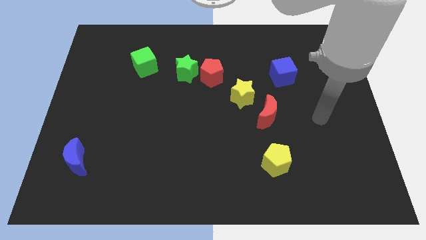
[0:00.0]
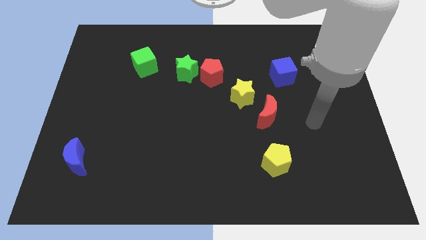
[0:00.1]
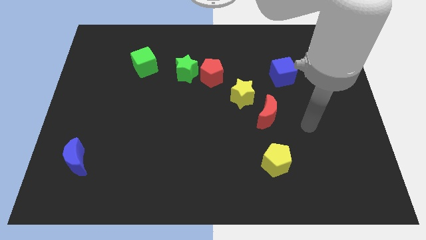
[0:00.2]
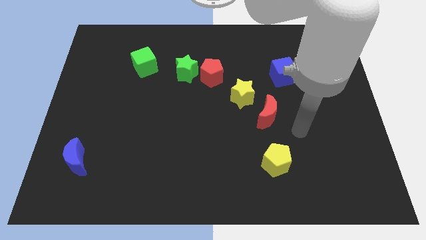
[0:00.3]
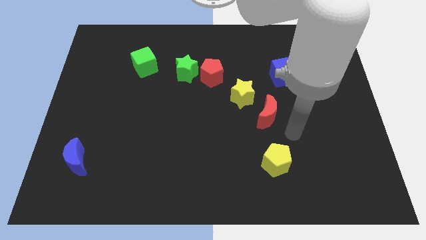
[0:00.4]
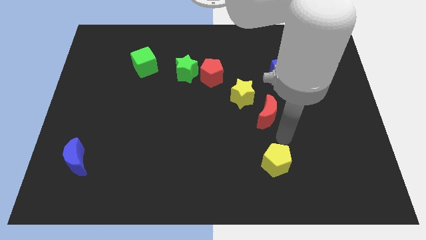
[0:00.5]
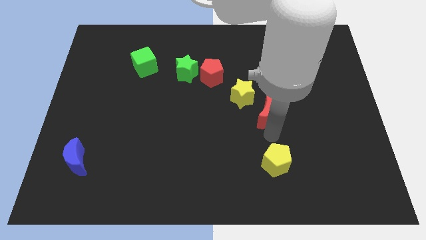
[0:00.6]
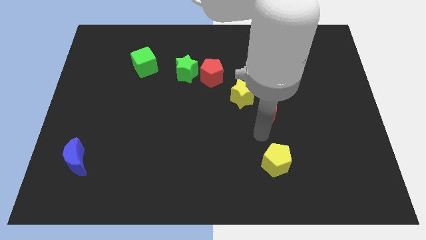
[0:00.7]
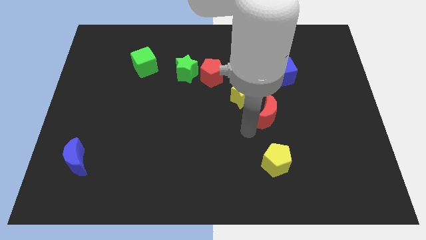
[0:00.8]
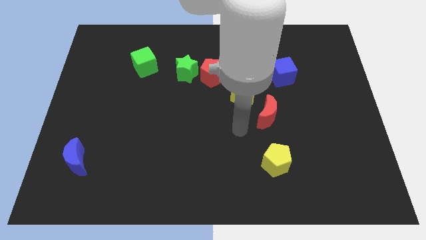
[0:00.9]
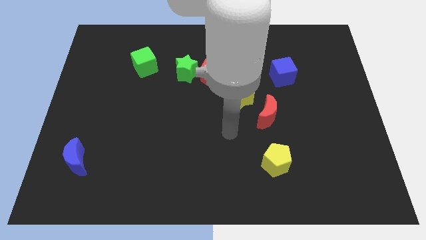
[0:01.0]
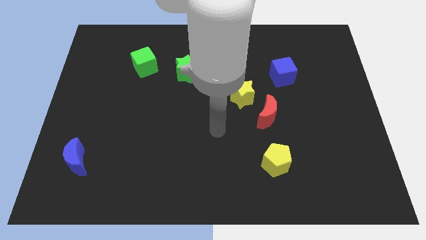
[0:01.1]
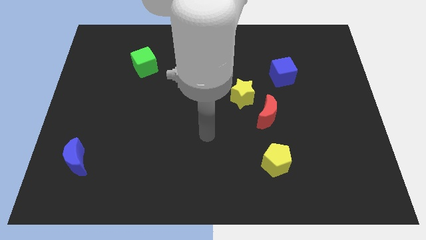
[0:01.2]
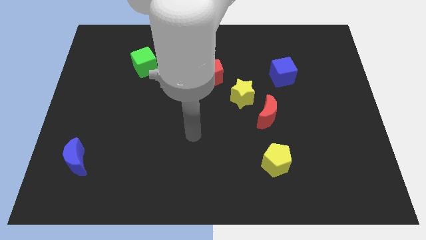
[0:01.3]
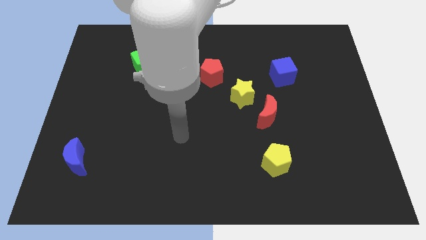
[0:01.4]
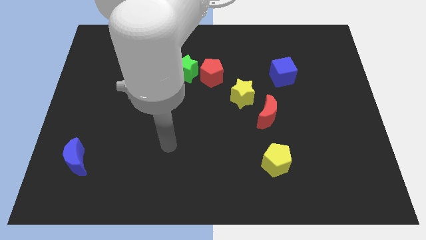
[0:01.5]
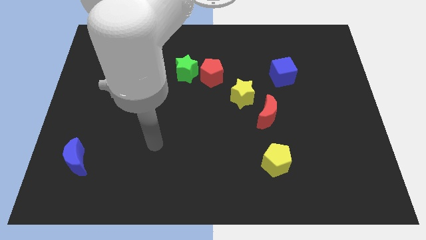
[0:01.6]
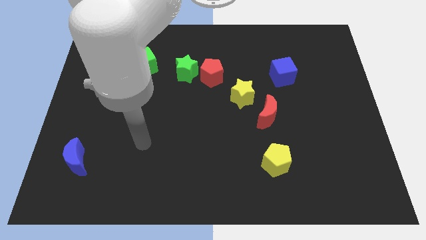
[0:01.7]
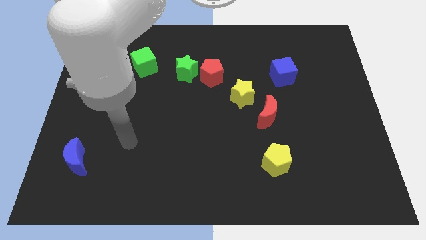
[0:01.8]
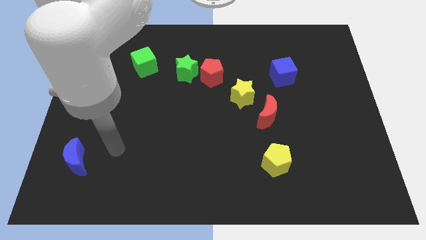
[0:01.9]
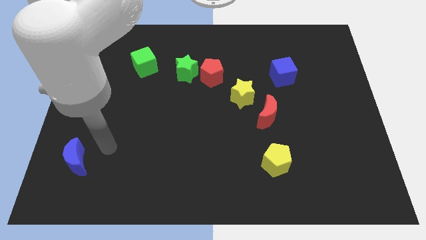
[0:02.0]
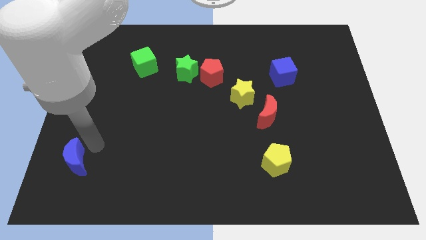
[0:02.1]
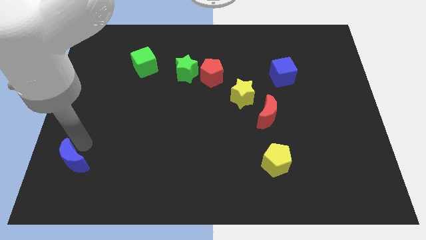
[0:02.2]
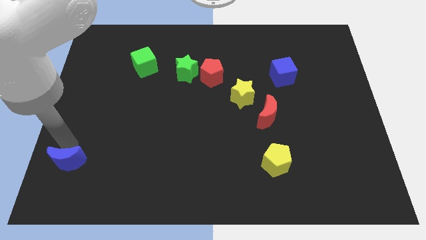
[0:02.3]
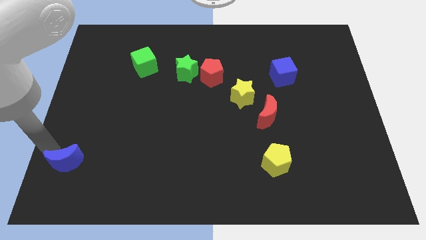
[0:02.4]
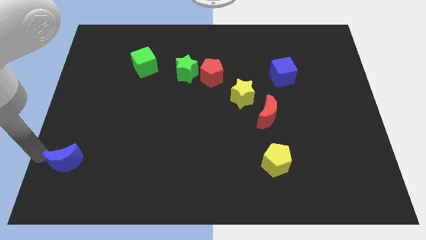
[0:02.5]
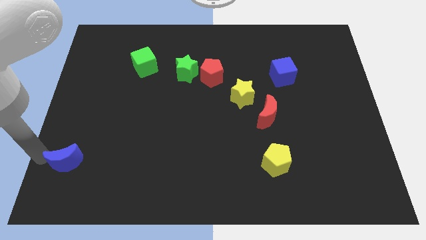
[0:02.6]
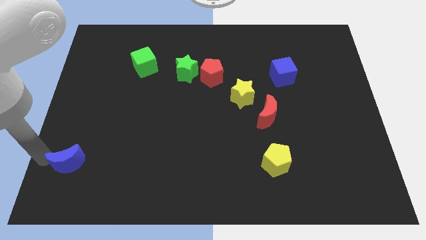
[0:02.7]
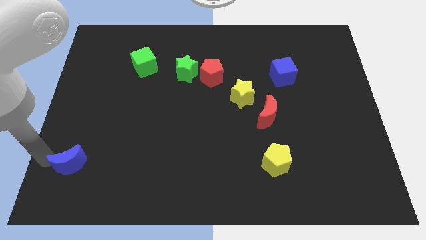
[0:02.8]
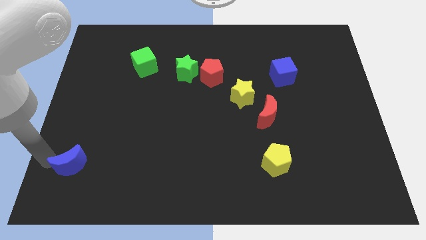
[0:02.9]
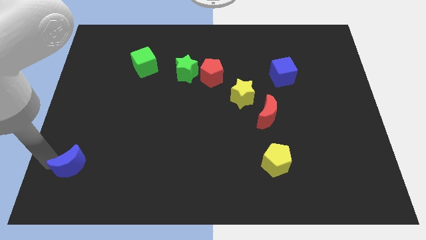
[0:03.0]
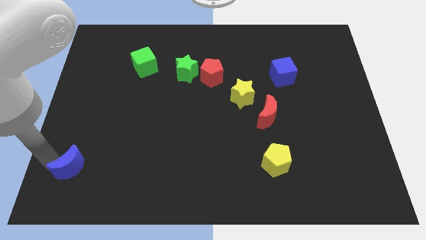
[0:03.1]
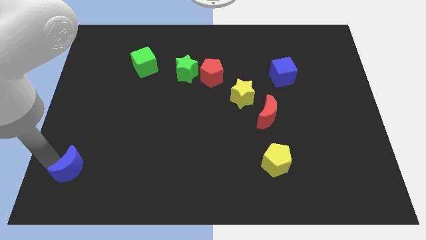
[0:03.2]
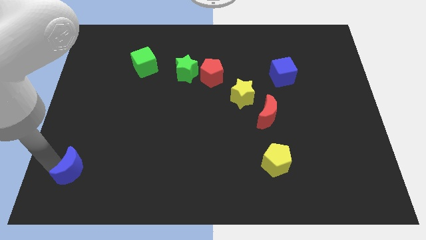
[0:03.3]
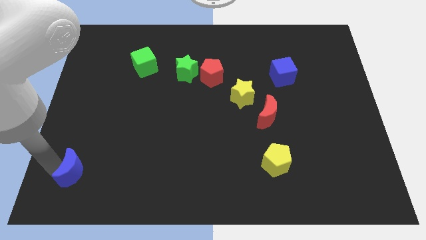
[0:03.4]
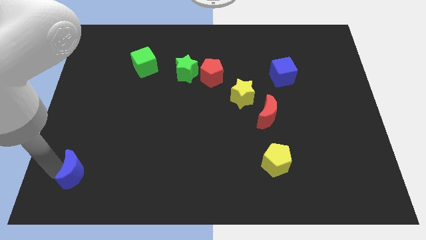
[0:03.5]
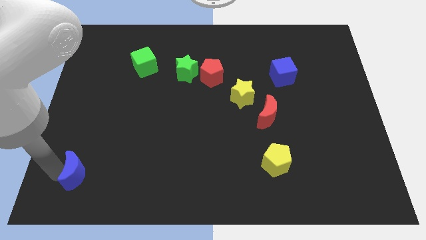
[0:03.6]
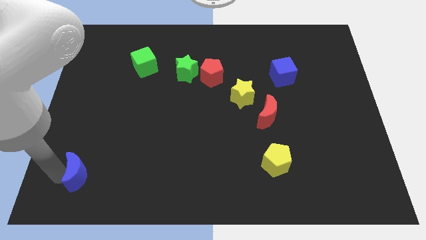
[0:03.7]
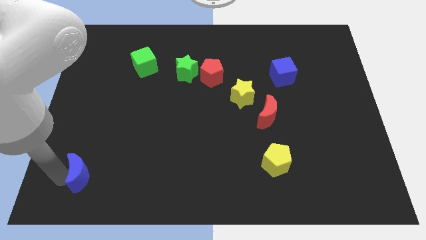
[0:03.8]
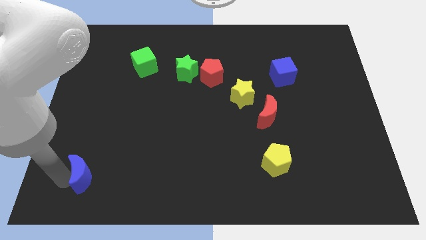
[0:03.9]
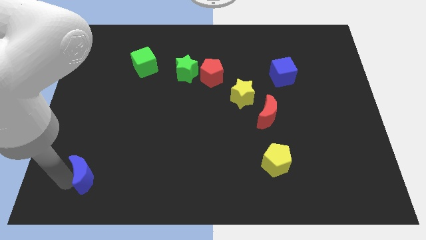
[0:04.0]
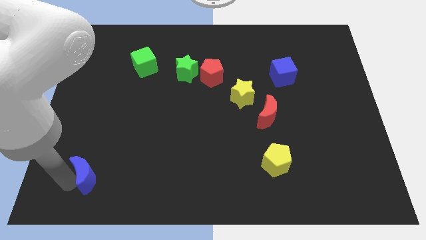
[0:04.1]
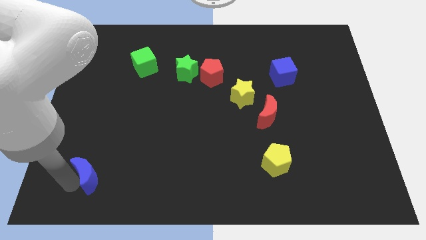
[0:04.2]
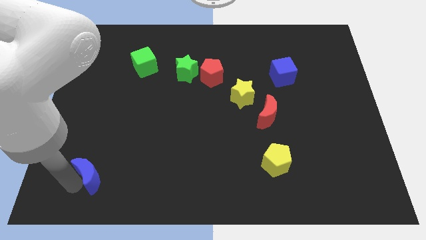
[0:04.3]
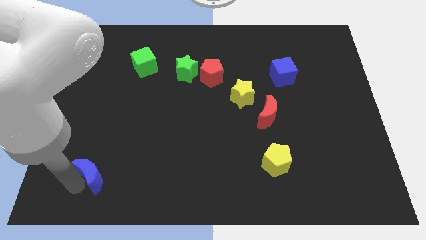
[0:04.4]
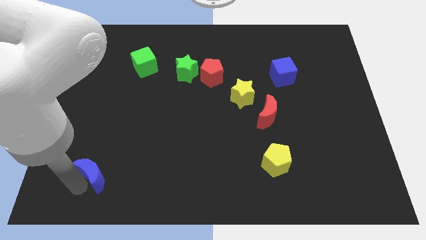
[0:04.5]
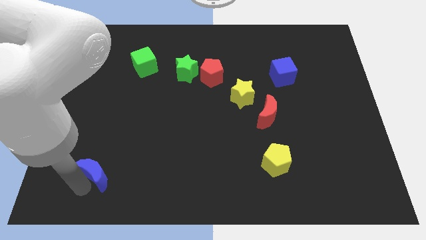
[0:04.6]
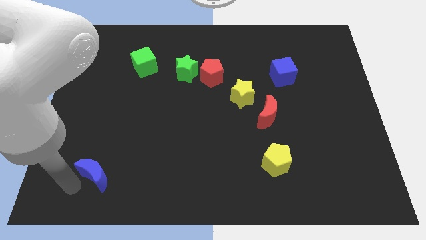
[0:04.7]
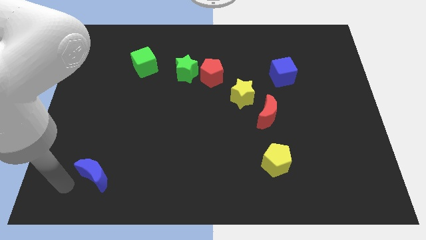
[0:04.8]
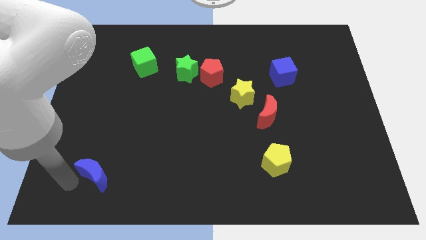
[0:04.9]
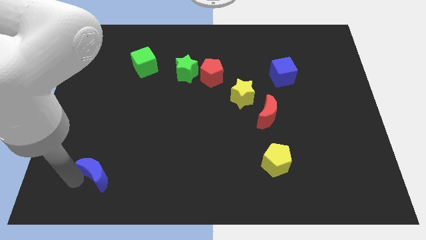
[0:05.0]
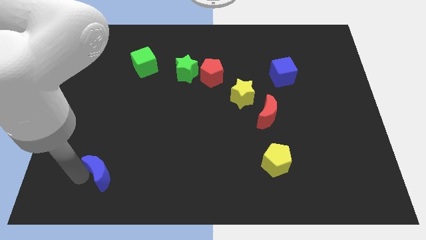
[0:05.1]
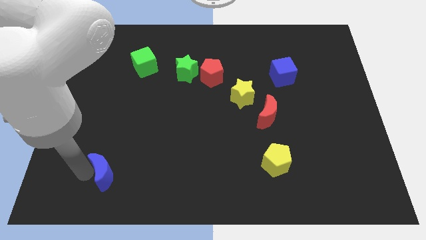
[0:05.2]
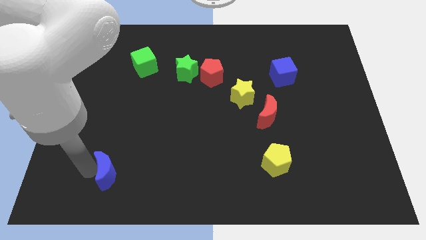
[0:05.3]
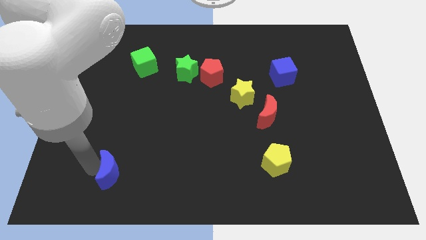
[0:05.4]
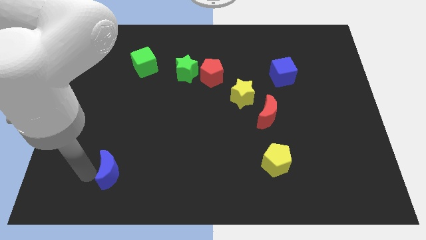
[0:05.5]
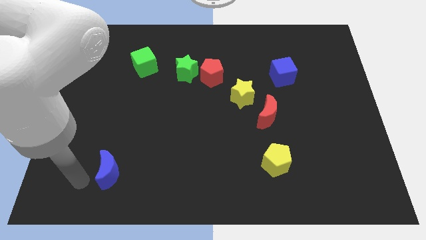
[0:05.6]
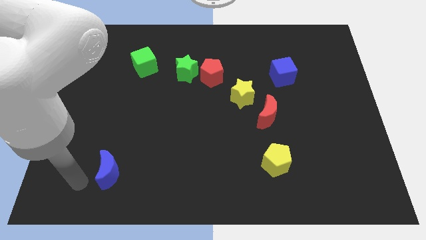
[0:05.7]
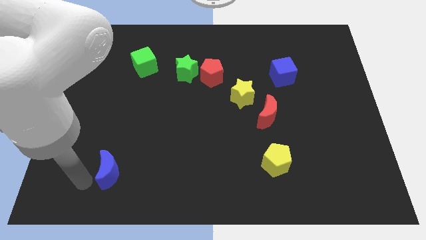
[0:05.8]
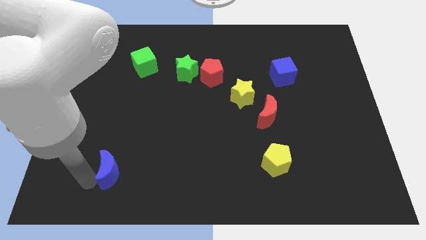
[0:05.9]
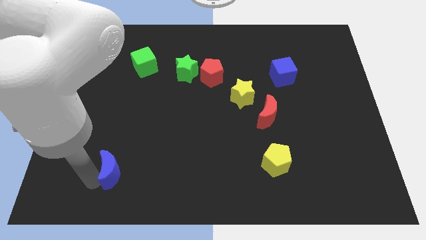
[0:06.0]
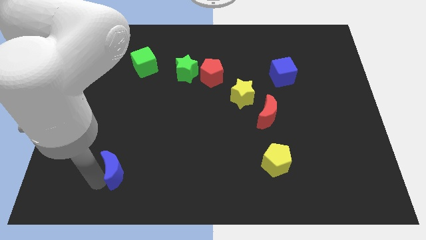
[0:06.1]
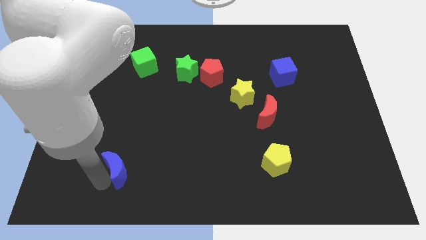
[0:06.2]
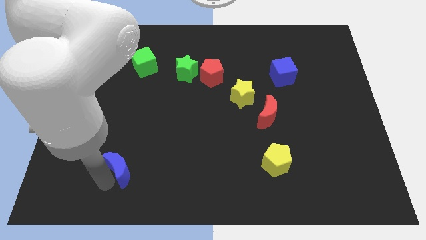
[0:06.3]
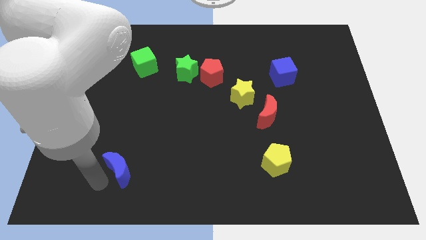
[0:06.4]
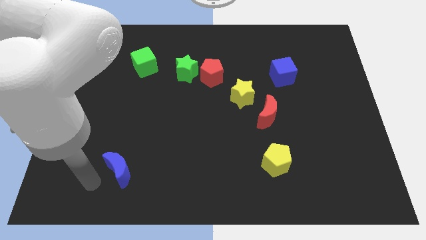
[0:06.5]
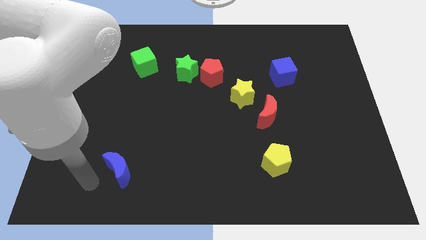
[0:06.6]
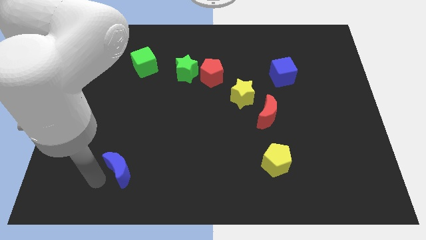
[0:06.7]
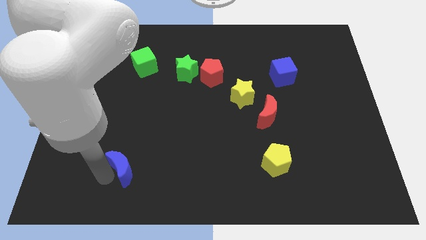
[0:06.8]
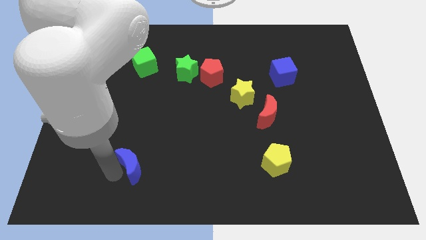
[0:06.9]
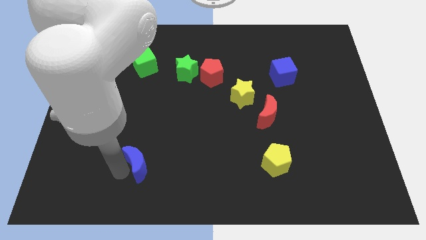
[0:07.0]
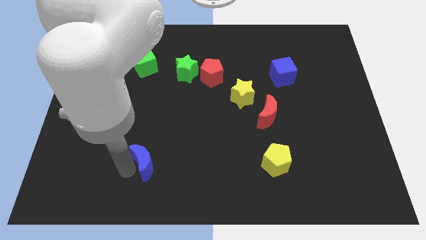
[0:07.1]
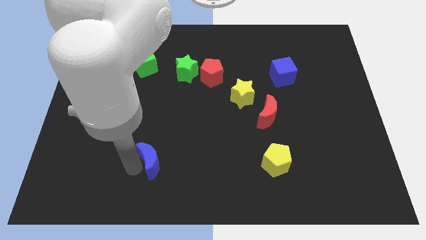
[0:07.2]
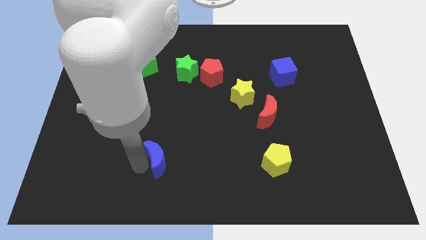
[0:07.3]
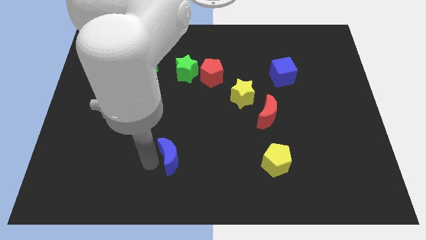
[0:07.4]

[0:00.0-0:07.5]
move the blue moon right

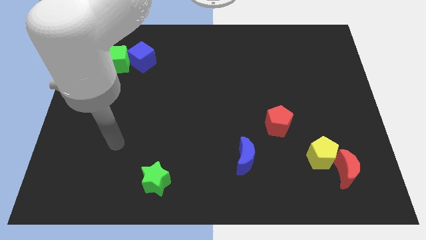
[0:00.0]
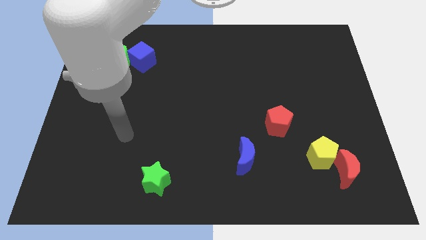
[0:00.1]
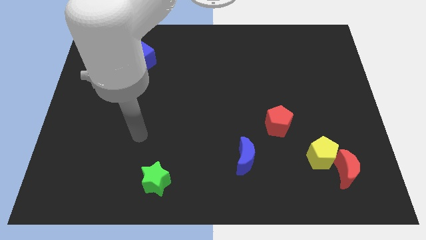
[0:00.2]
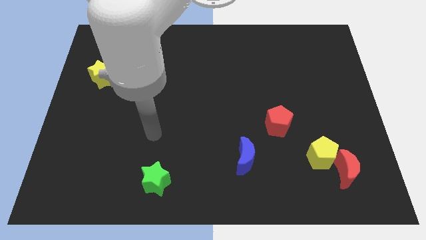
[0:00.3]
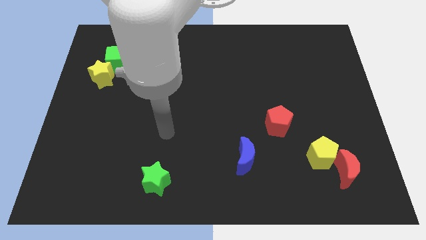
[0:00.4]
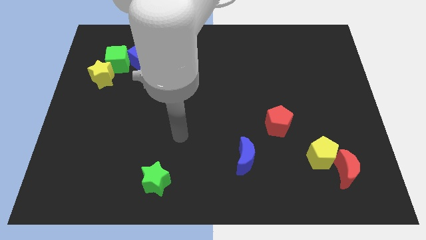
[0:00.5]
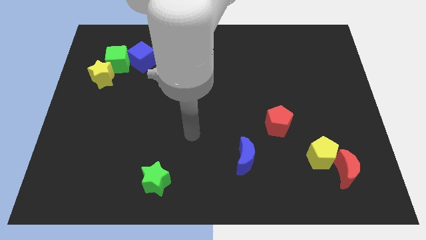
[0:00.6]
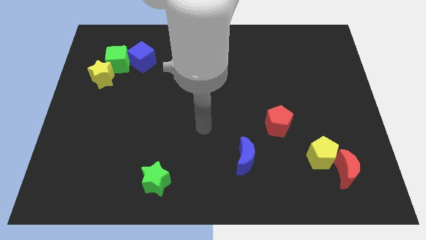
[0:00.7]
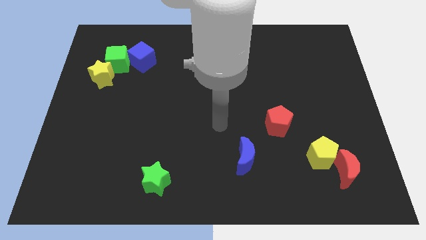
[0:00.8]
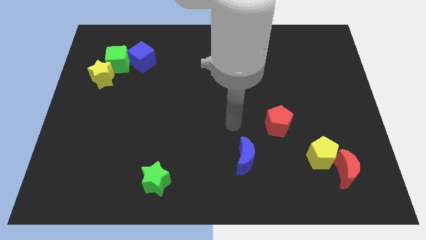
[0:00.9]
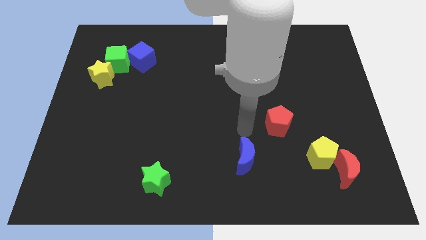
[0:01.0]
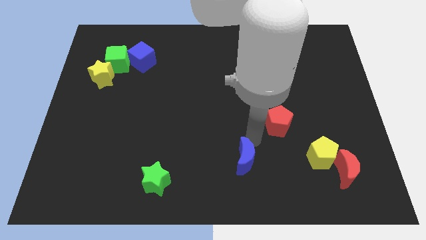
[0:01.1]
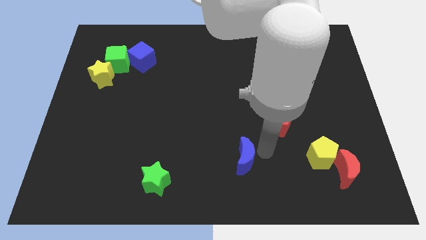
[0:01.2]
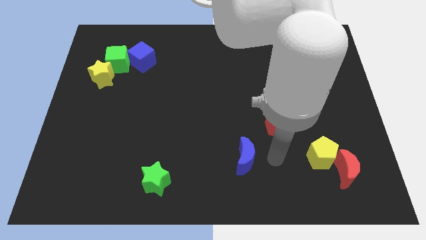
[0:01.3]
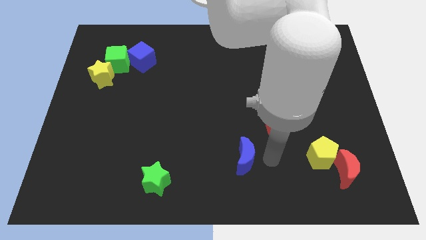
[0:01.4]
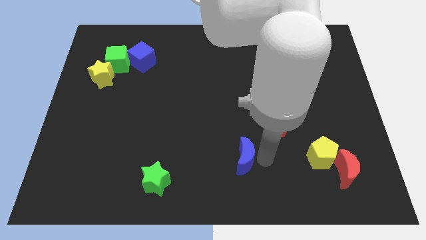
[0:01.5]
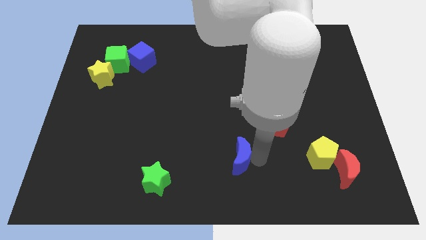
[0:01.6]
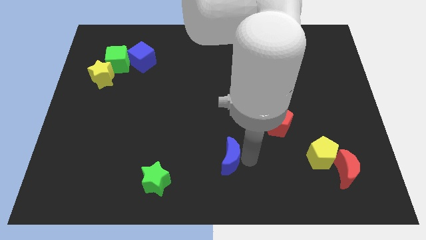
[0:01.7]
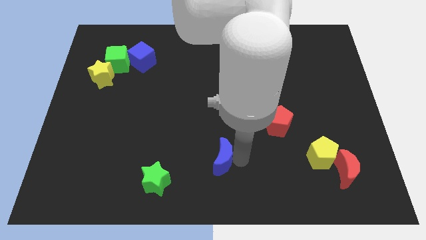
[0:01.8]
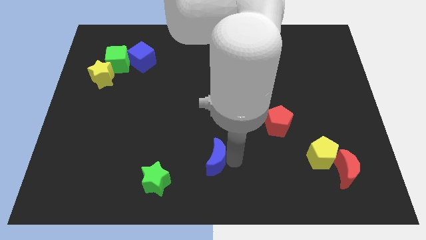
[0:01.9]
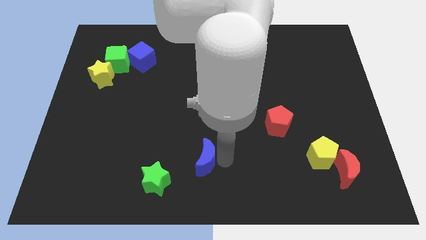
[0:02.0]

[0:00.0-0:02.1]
slightly push the blue moon to the left
